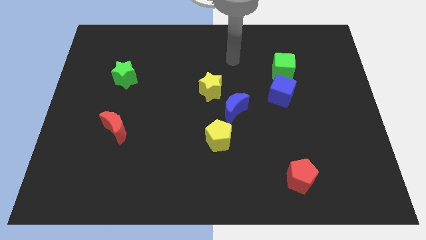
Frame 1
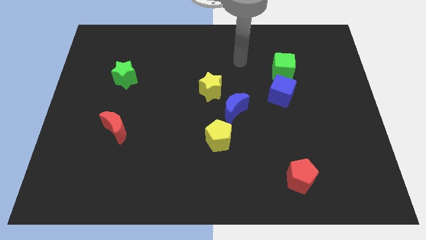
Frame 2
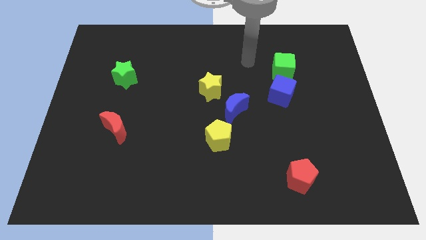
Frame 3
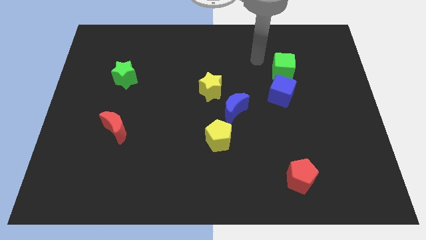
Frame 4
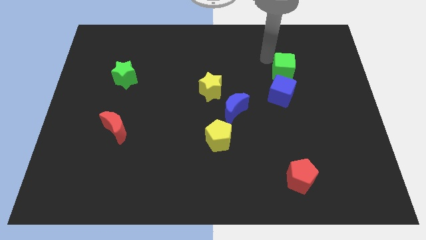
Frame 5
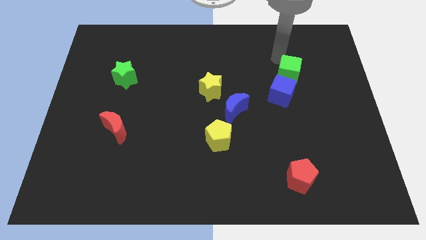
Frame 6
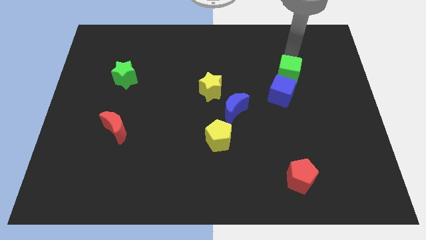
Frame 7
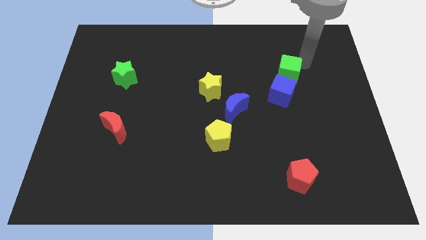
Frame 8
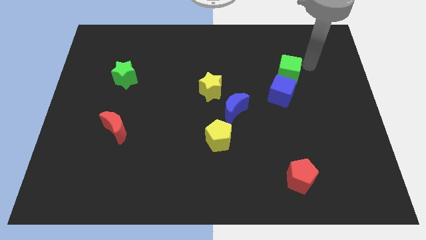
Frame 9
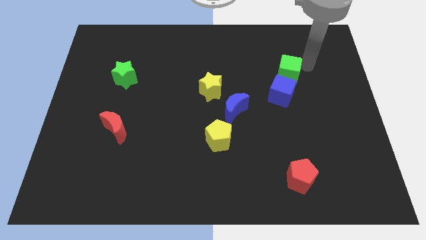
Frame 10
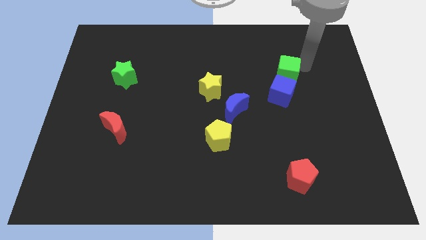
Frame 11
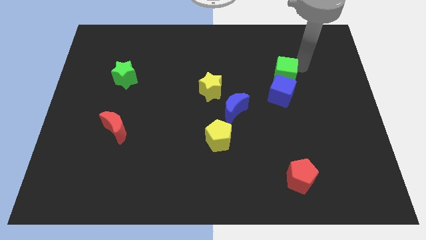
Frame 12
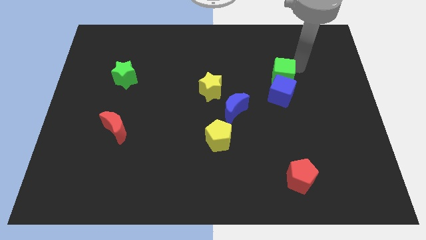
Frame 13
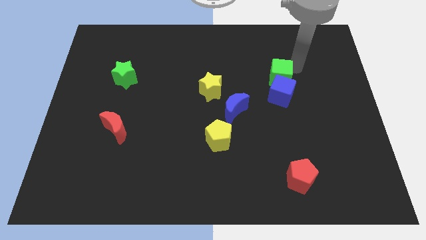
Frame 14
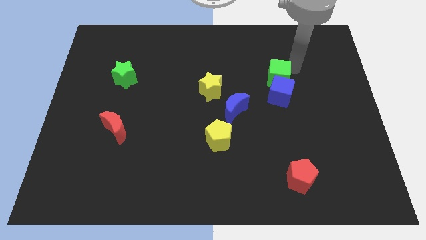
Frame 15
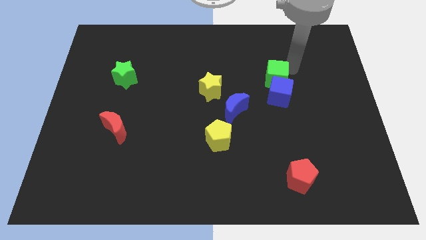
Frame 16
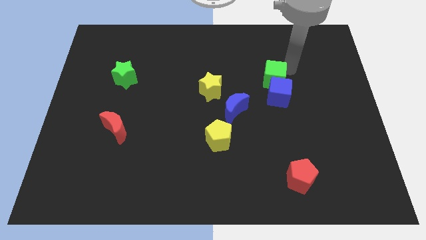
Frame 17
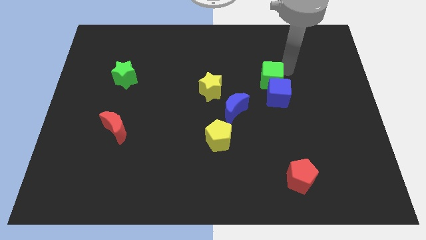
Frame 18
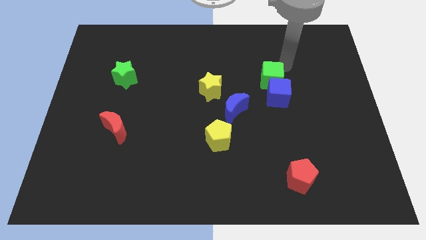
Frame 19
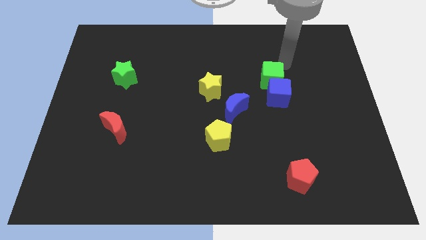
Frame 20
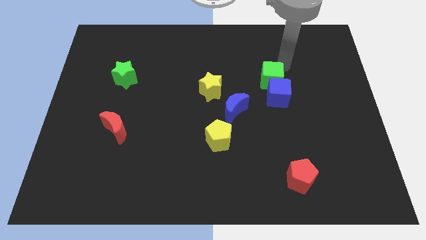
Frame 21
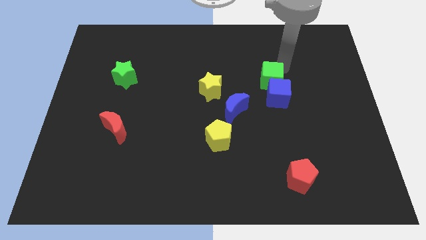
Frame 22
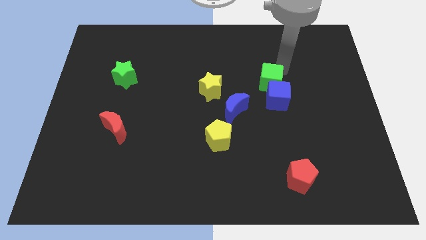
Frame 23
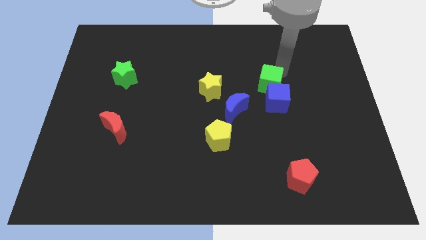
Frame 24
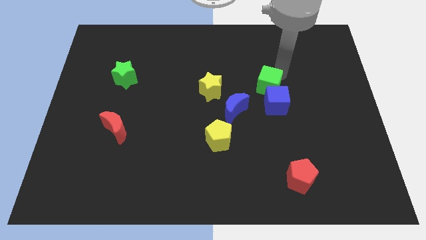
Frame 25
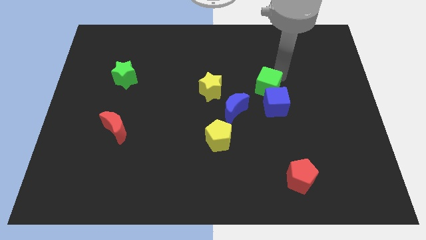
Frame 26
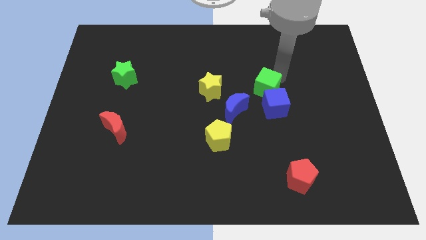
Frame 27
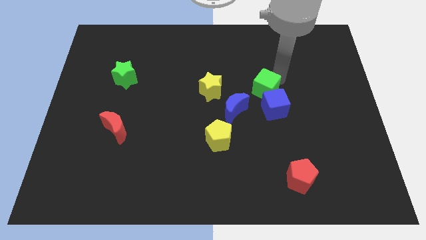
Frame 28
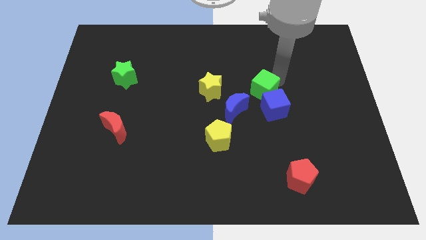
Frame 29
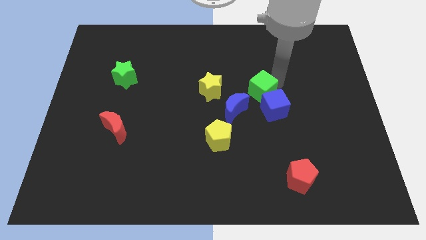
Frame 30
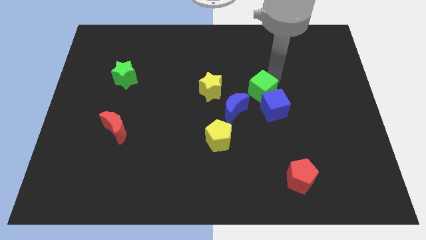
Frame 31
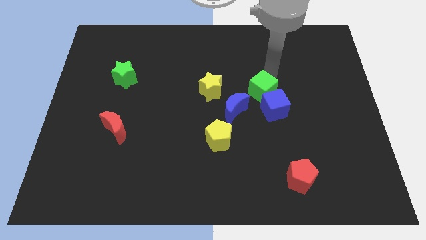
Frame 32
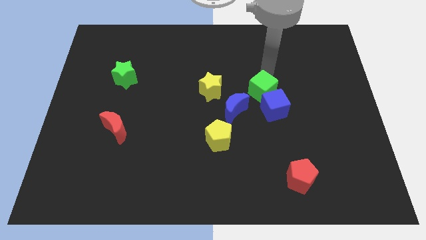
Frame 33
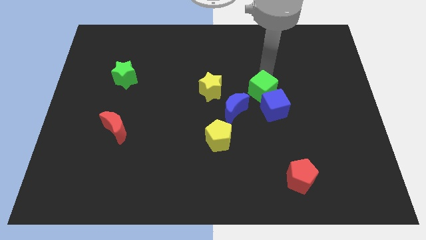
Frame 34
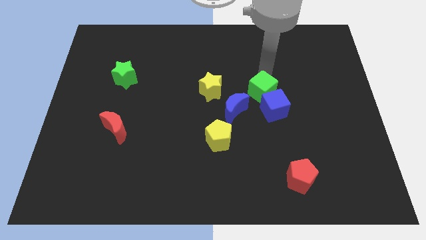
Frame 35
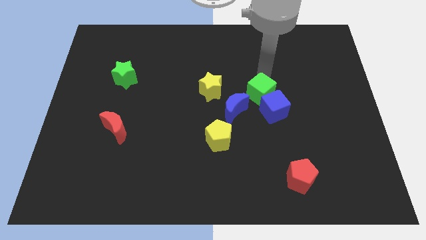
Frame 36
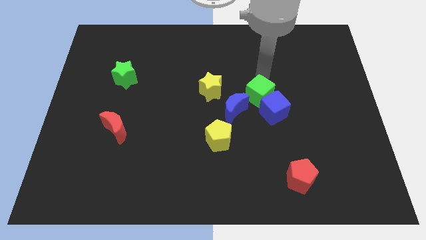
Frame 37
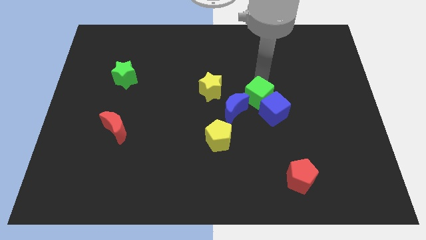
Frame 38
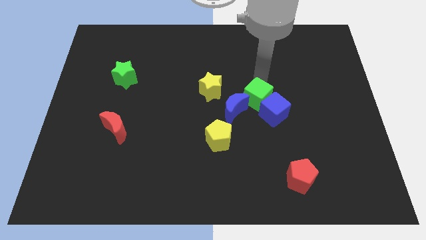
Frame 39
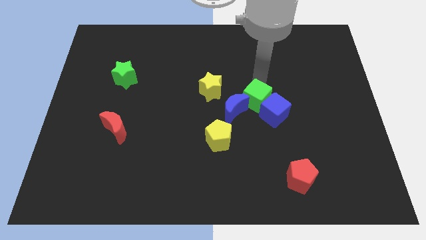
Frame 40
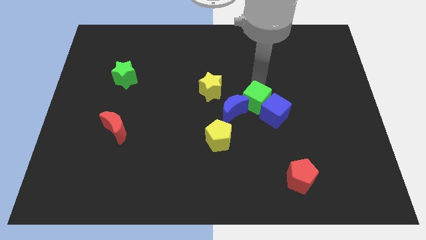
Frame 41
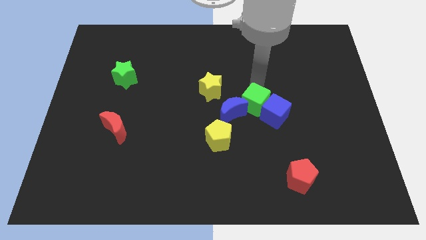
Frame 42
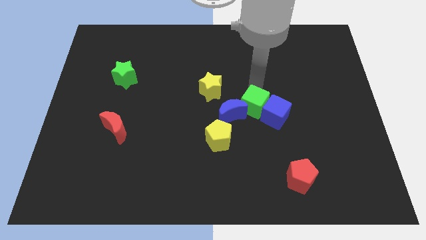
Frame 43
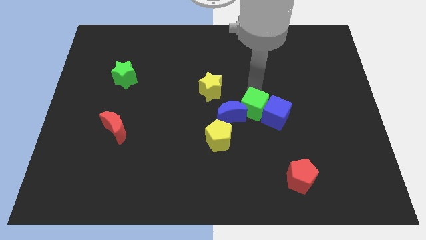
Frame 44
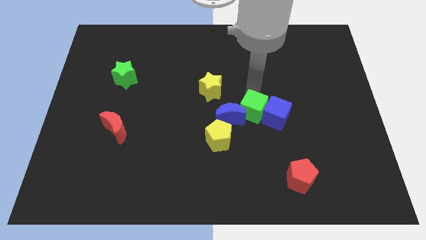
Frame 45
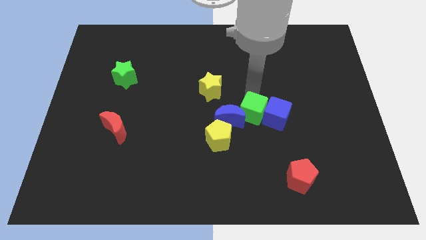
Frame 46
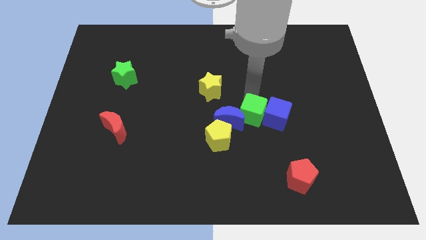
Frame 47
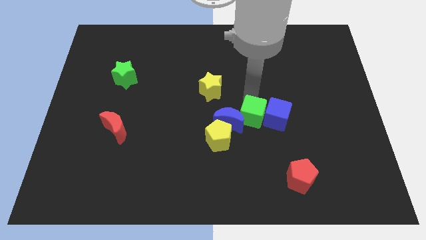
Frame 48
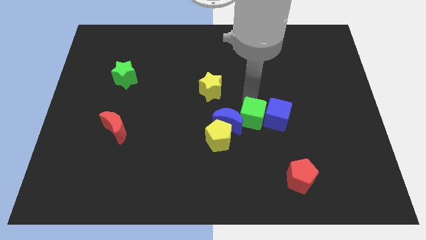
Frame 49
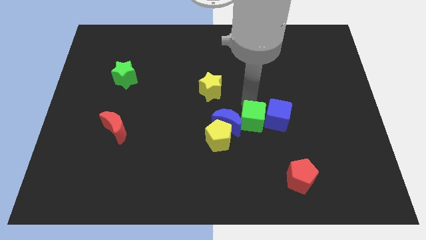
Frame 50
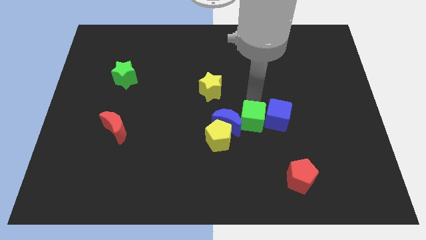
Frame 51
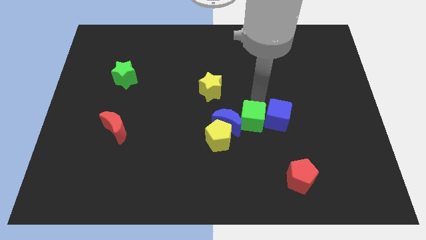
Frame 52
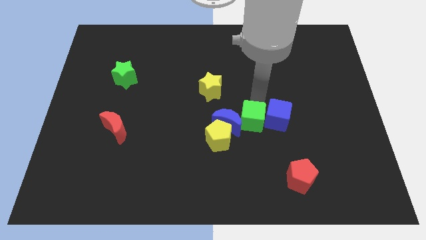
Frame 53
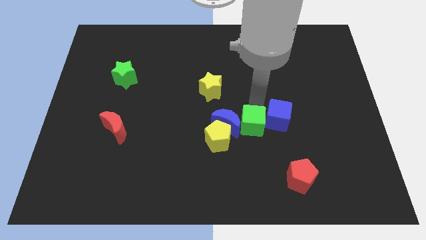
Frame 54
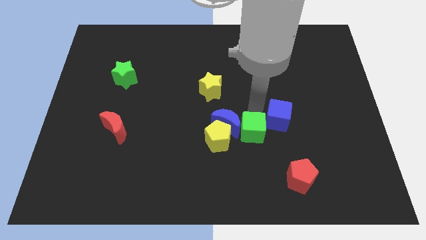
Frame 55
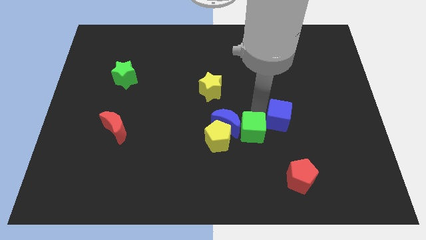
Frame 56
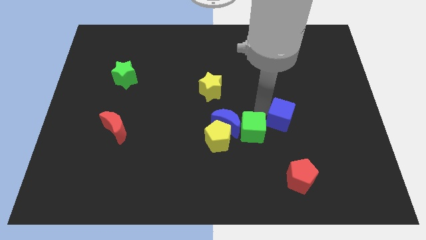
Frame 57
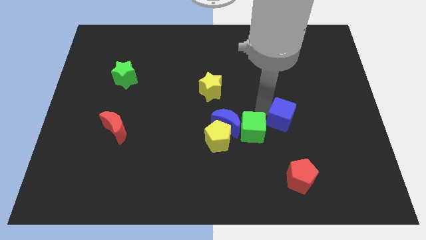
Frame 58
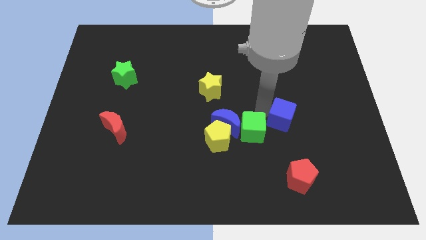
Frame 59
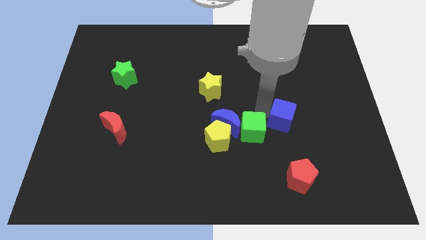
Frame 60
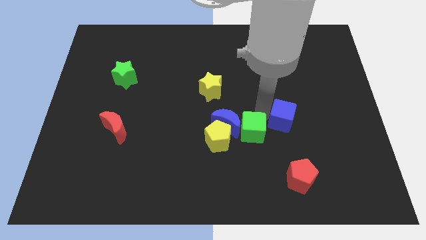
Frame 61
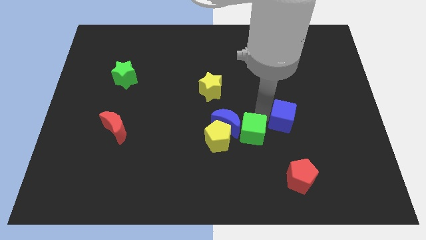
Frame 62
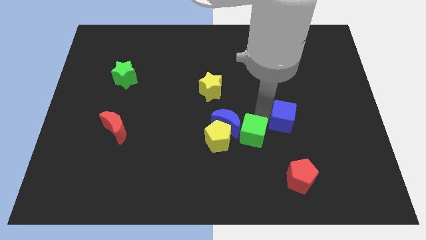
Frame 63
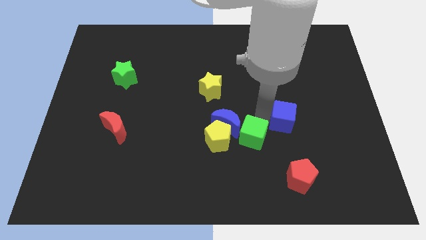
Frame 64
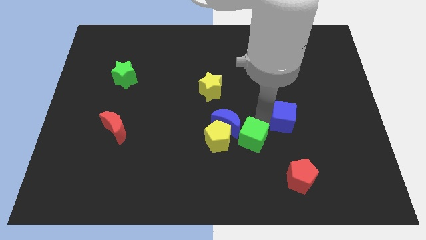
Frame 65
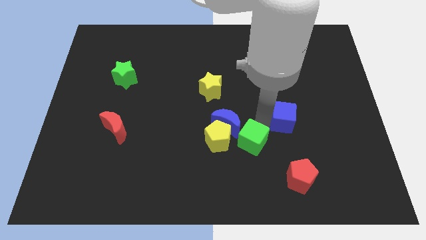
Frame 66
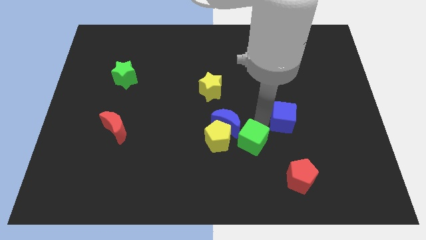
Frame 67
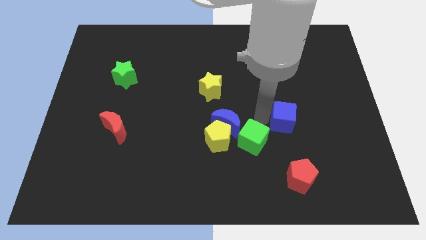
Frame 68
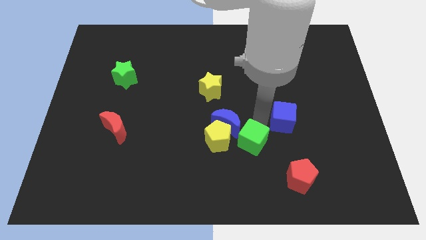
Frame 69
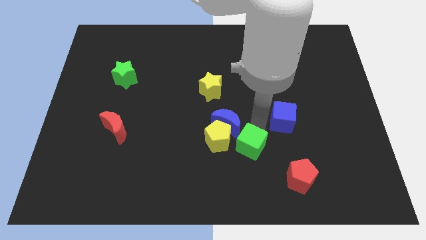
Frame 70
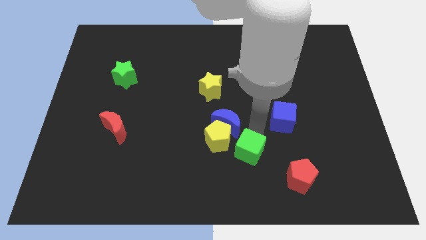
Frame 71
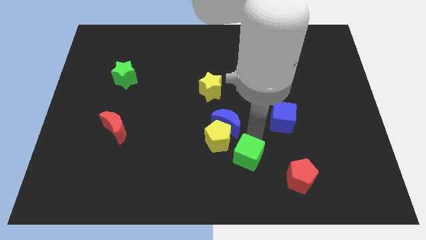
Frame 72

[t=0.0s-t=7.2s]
push the green cube down and then to the left

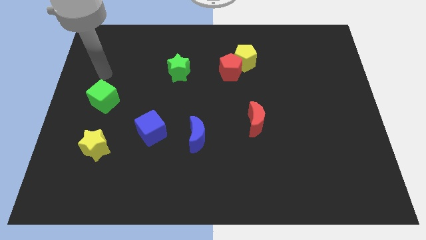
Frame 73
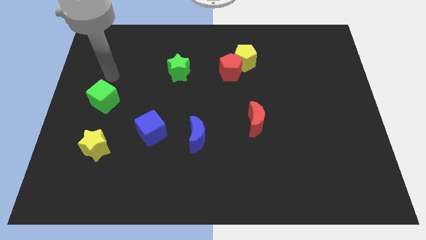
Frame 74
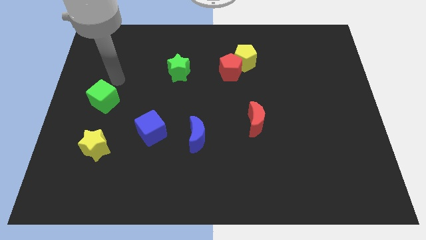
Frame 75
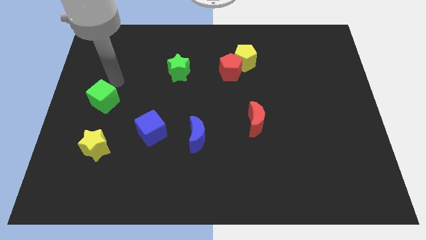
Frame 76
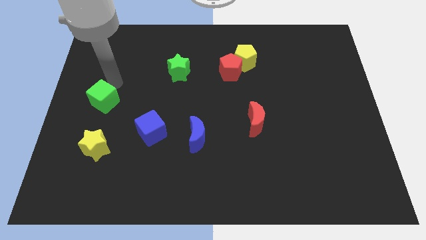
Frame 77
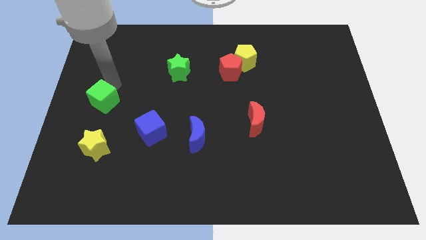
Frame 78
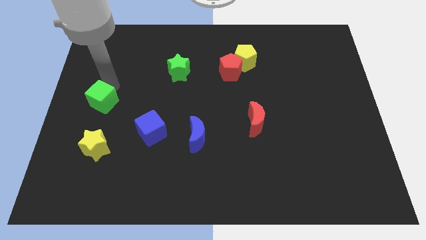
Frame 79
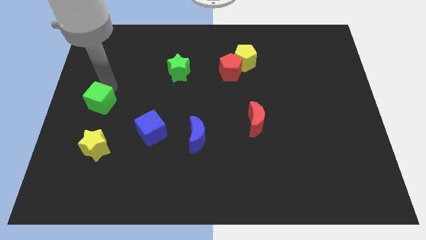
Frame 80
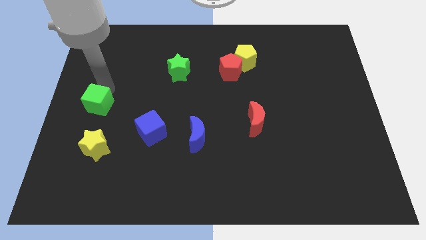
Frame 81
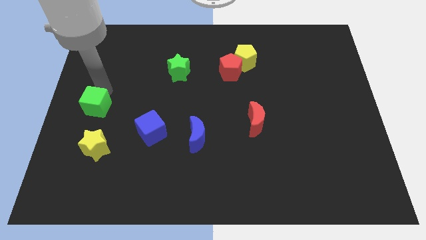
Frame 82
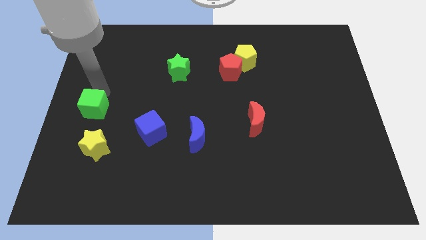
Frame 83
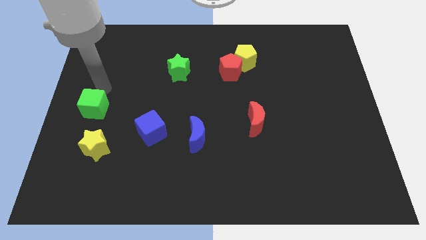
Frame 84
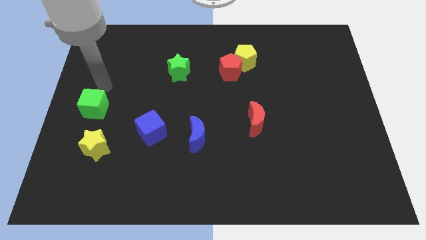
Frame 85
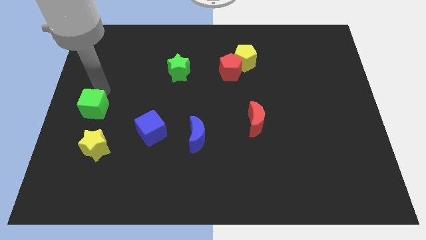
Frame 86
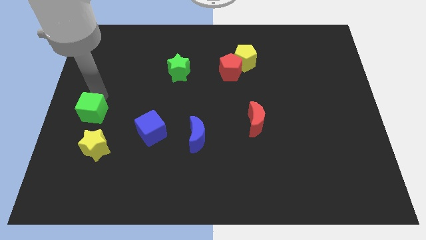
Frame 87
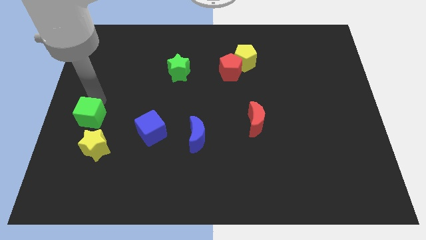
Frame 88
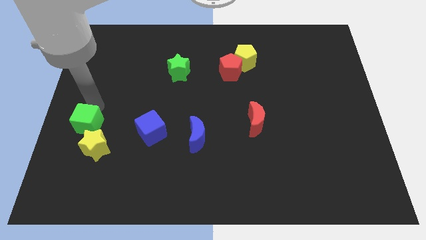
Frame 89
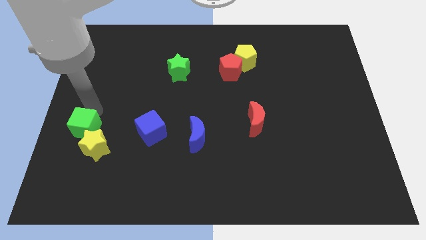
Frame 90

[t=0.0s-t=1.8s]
slightly slide the green cube downwards
